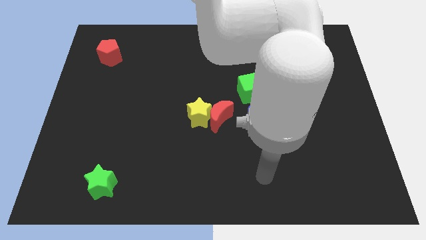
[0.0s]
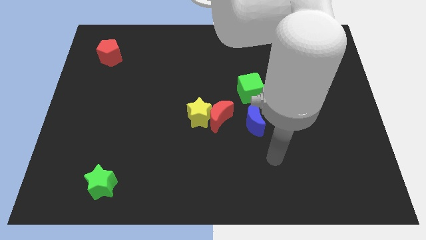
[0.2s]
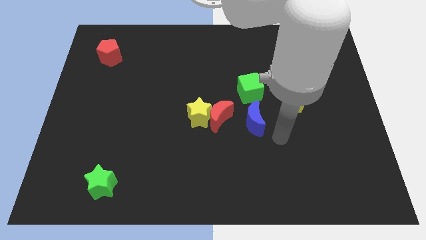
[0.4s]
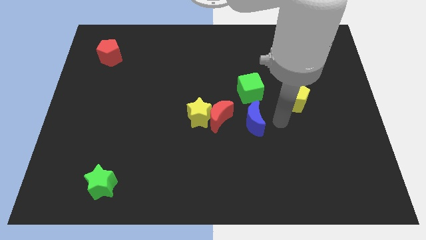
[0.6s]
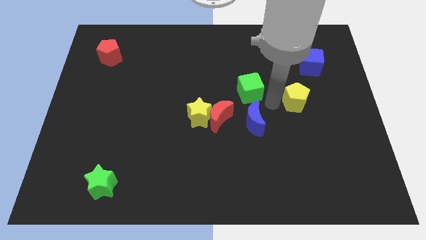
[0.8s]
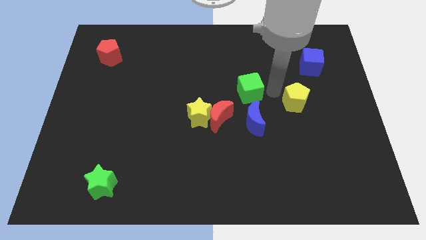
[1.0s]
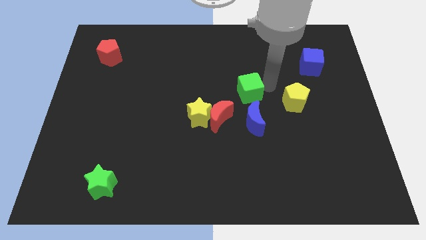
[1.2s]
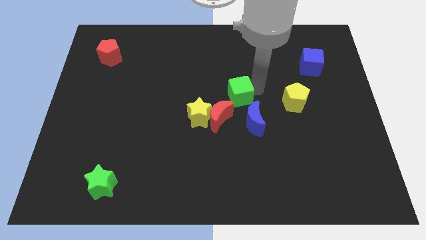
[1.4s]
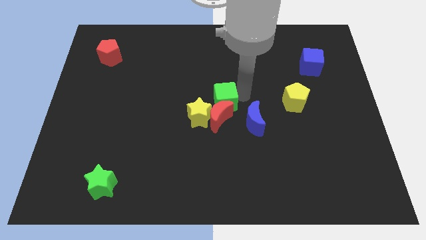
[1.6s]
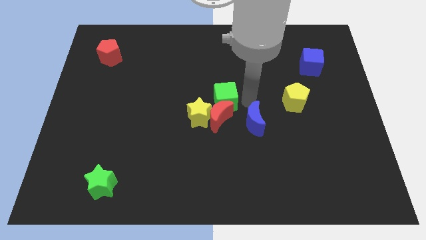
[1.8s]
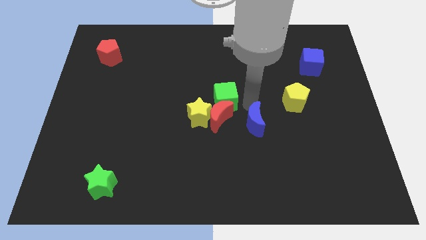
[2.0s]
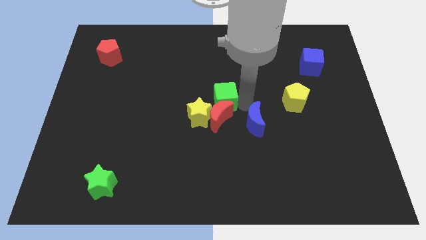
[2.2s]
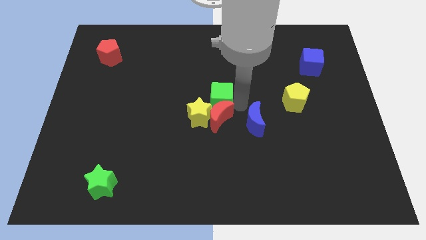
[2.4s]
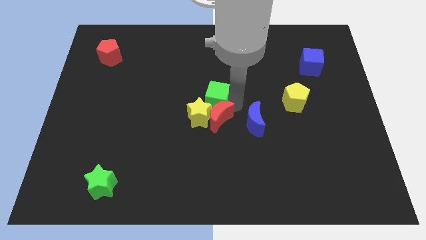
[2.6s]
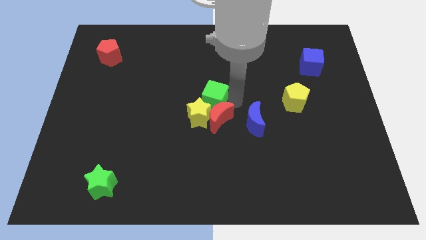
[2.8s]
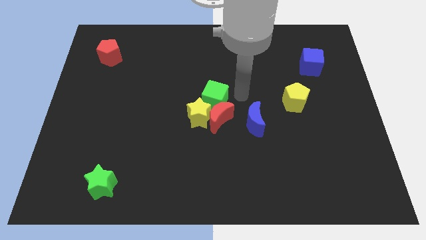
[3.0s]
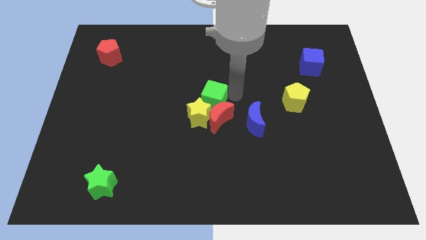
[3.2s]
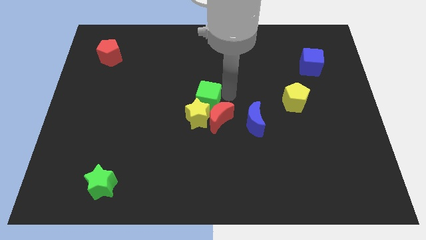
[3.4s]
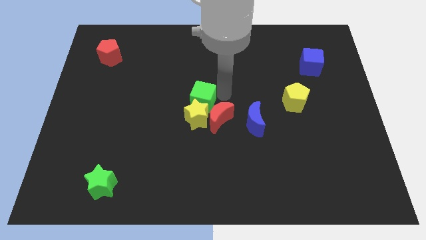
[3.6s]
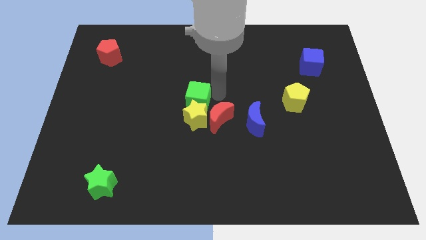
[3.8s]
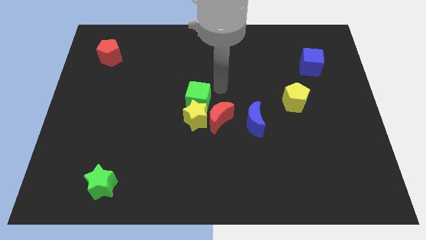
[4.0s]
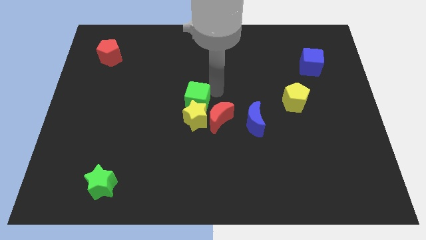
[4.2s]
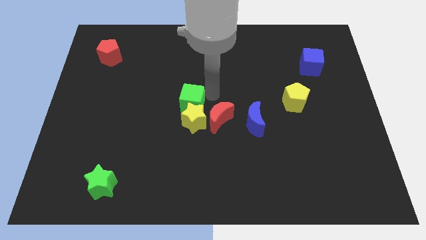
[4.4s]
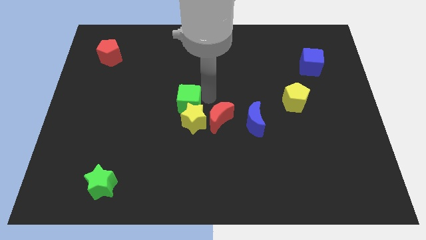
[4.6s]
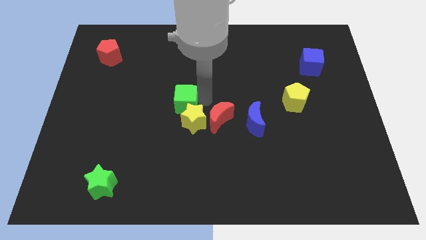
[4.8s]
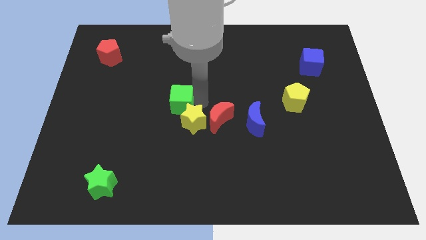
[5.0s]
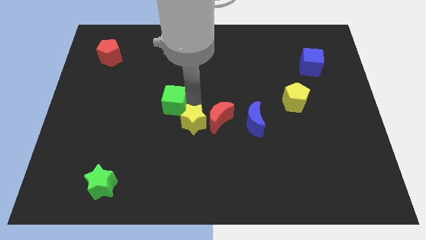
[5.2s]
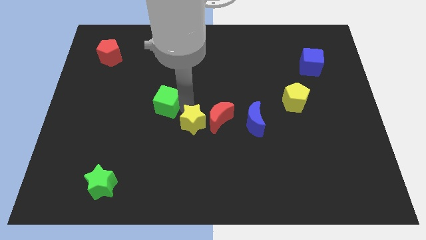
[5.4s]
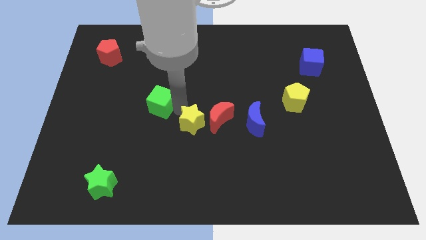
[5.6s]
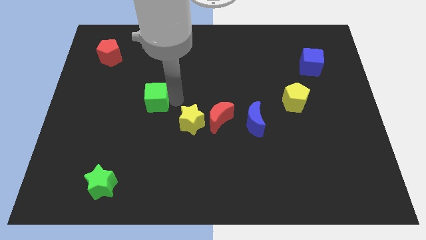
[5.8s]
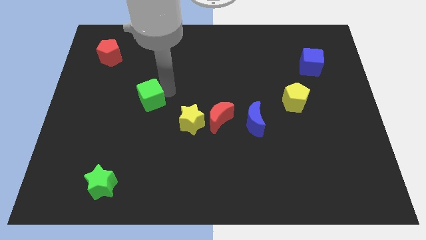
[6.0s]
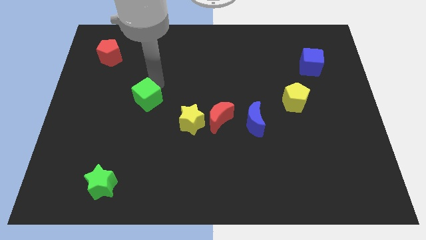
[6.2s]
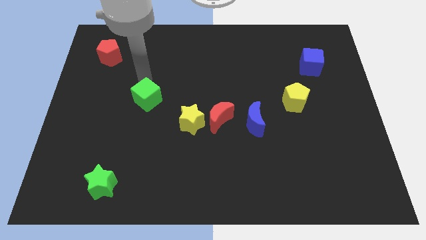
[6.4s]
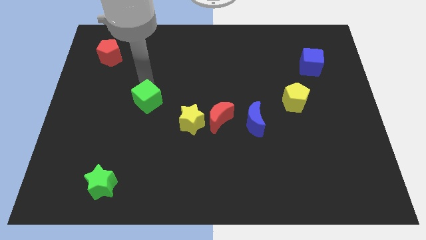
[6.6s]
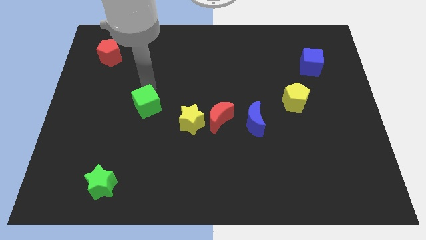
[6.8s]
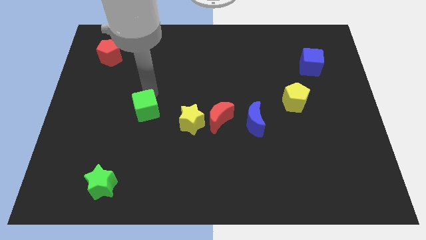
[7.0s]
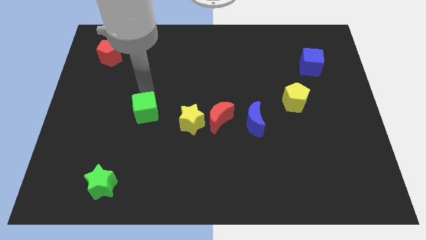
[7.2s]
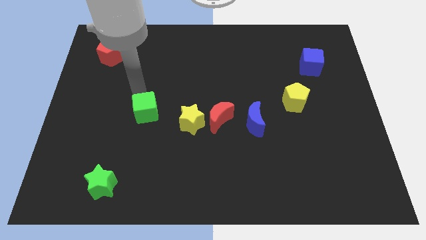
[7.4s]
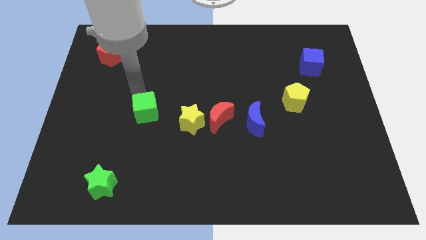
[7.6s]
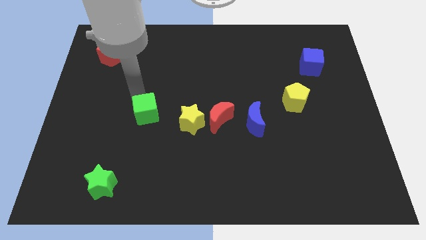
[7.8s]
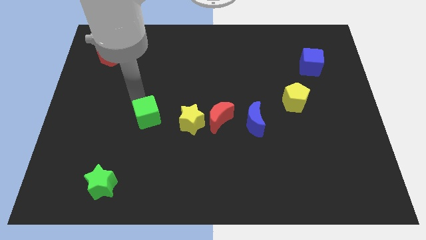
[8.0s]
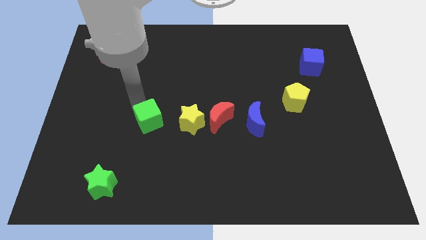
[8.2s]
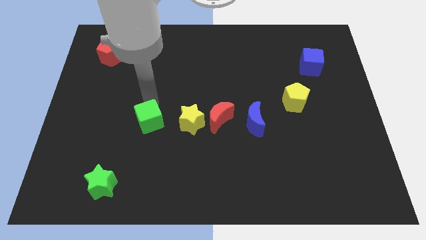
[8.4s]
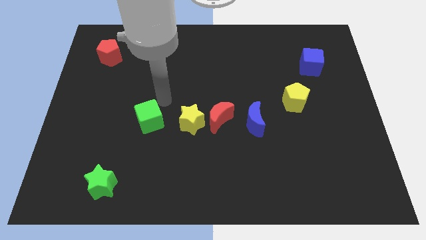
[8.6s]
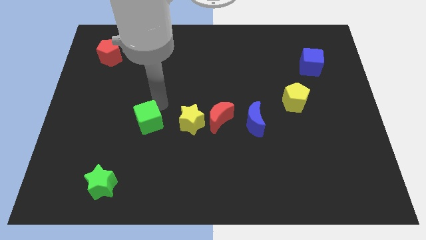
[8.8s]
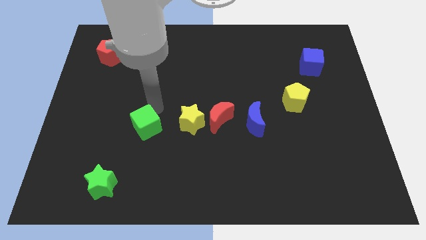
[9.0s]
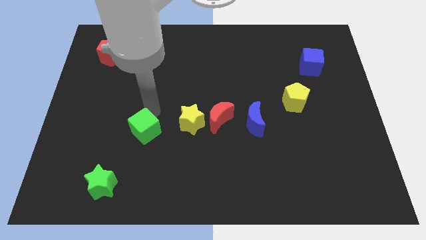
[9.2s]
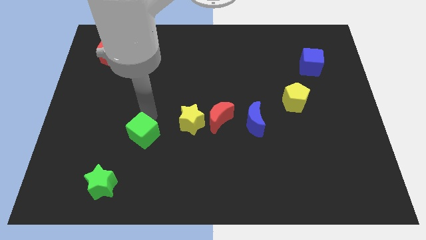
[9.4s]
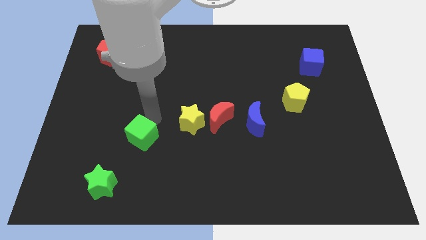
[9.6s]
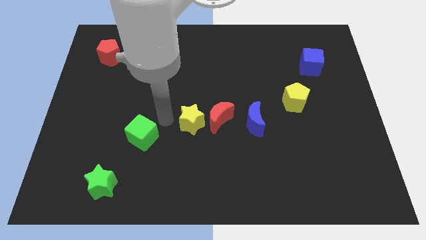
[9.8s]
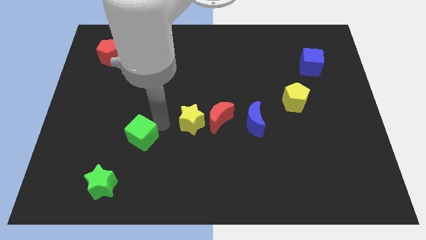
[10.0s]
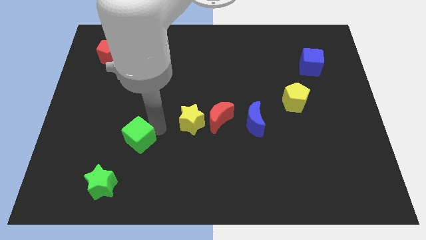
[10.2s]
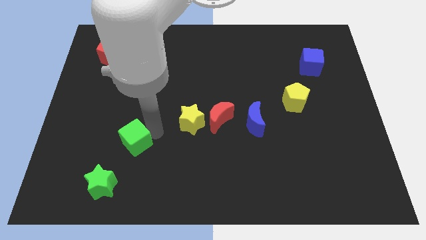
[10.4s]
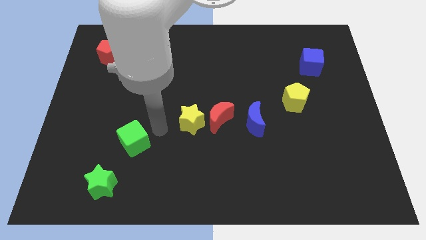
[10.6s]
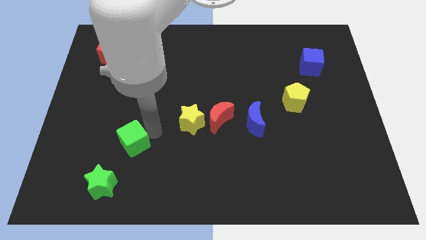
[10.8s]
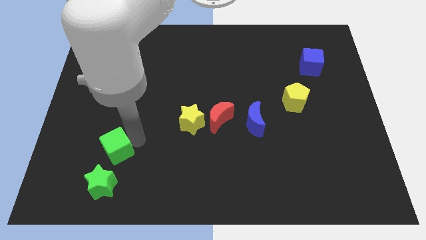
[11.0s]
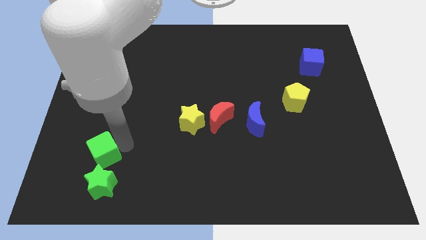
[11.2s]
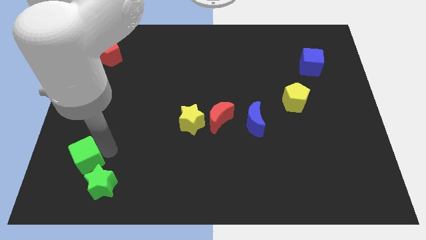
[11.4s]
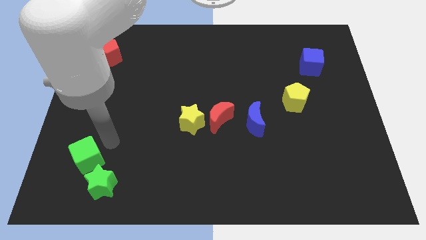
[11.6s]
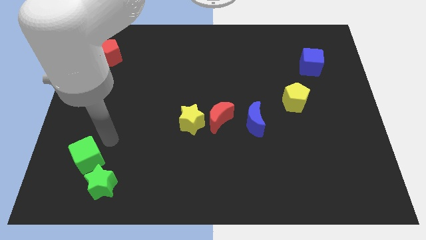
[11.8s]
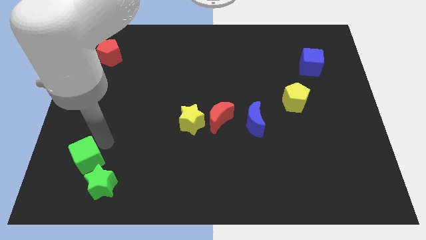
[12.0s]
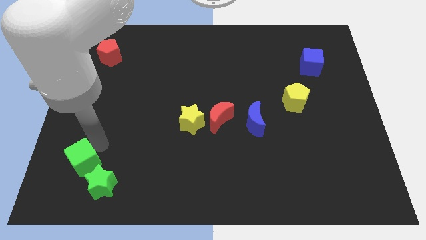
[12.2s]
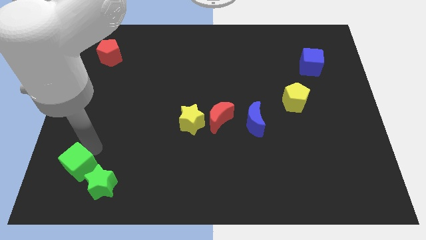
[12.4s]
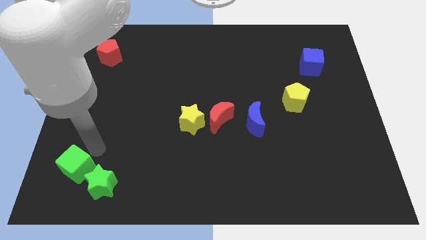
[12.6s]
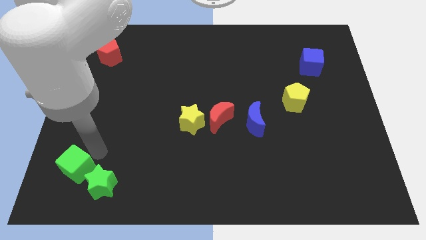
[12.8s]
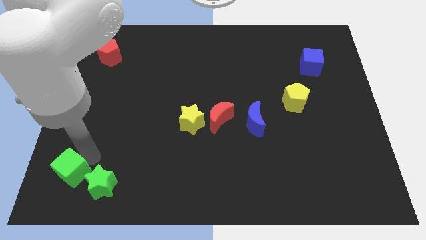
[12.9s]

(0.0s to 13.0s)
push the green cube to the bottom left of the board
